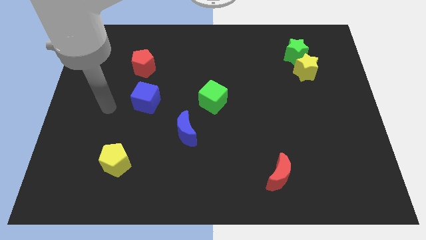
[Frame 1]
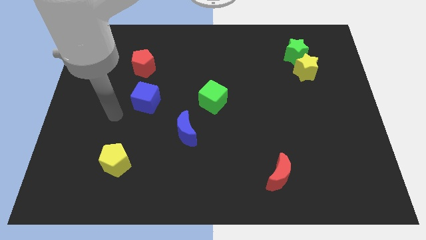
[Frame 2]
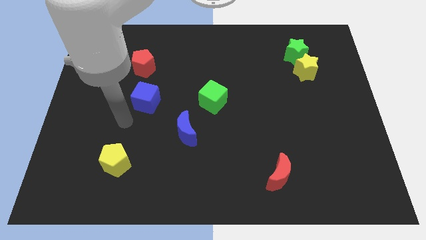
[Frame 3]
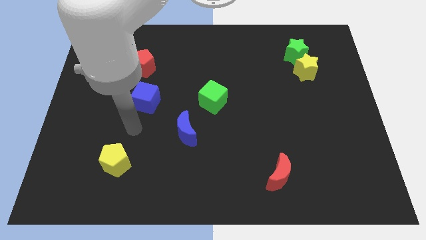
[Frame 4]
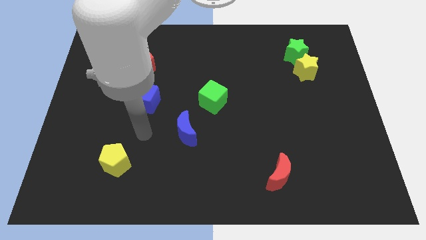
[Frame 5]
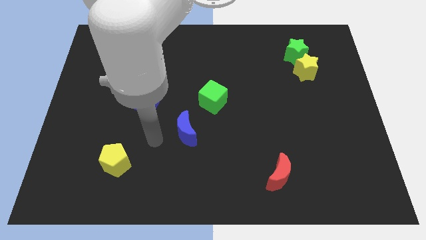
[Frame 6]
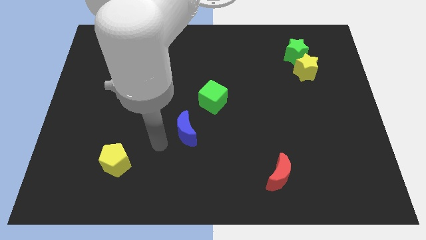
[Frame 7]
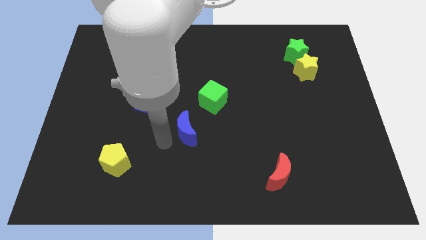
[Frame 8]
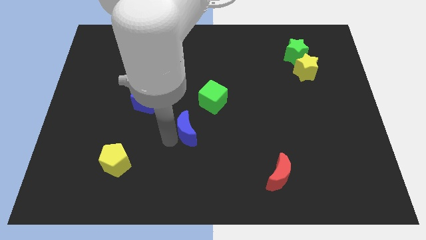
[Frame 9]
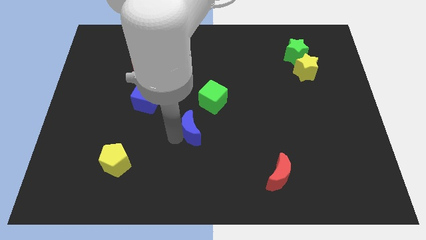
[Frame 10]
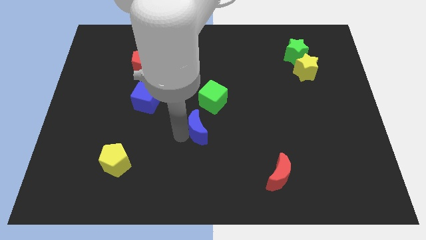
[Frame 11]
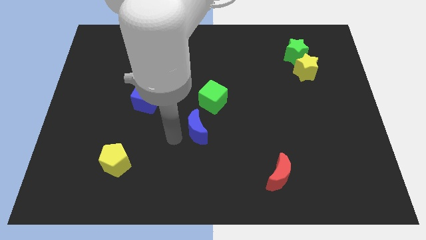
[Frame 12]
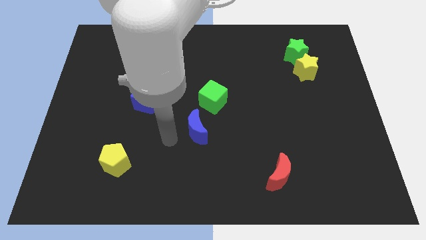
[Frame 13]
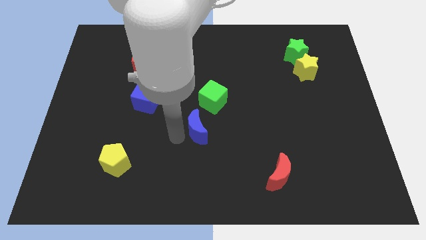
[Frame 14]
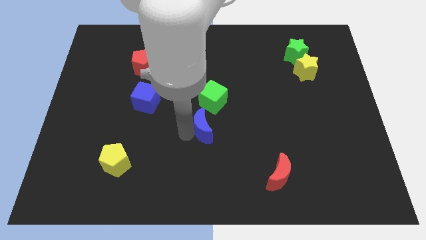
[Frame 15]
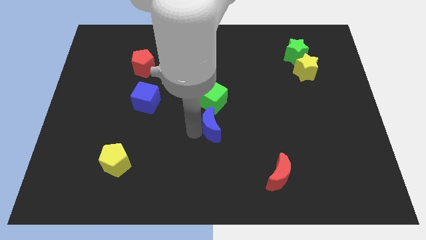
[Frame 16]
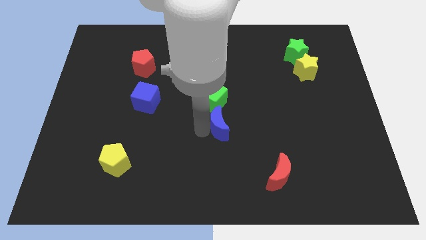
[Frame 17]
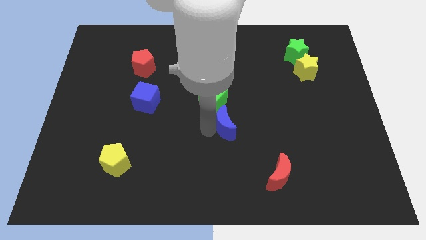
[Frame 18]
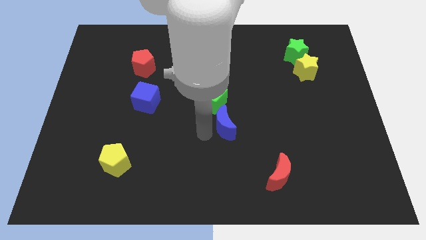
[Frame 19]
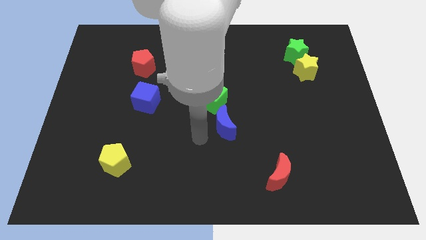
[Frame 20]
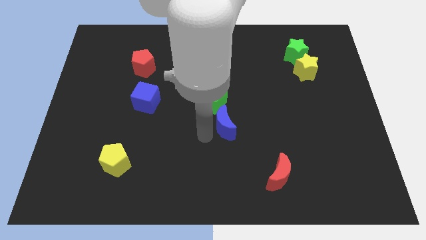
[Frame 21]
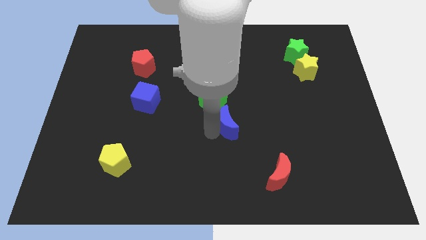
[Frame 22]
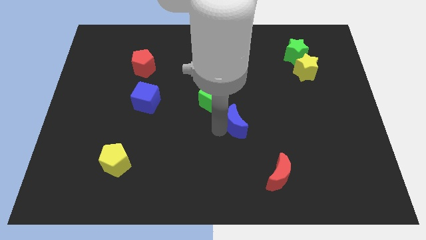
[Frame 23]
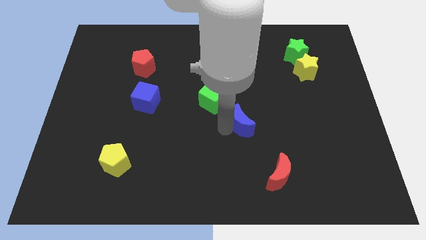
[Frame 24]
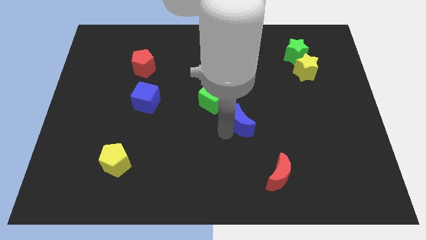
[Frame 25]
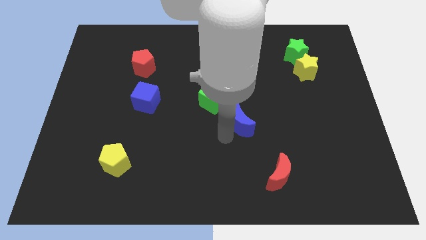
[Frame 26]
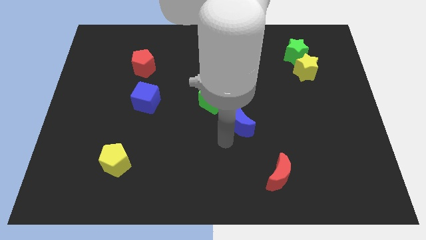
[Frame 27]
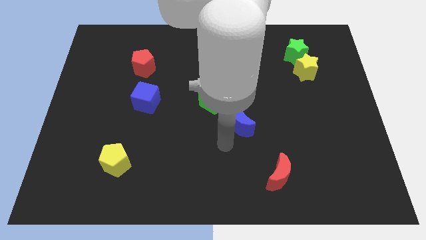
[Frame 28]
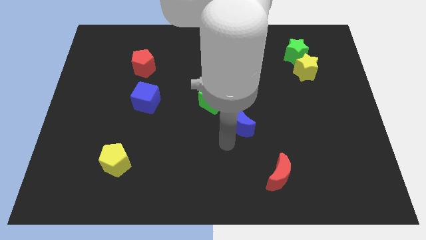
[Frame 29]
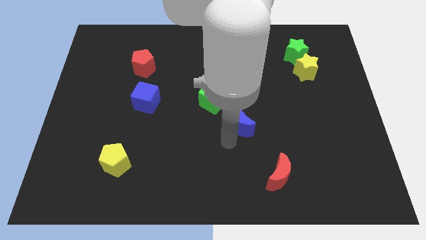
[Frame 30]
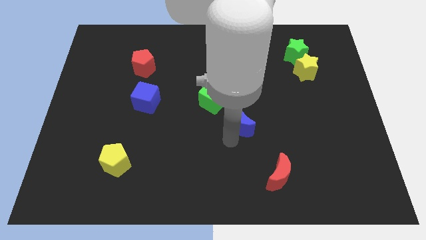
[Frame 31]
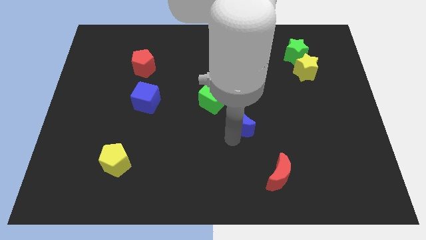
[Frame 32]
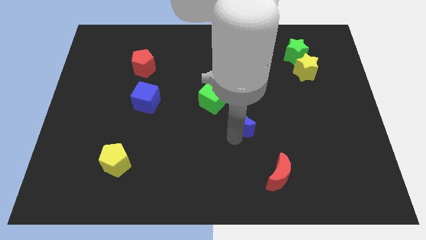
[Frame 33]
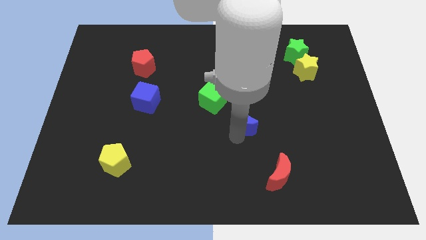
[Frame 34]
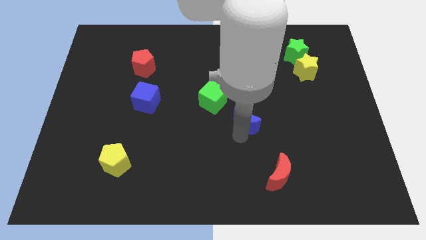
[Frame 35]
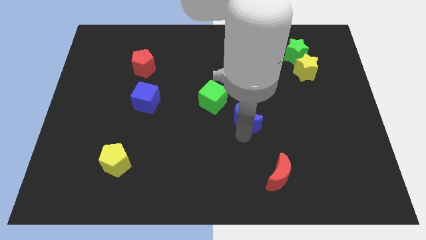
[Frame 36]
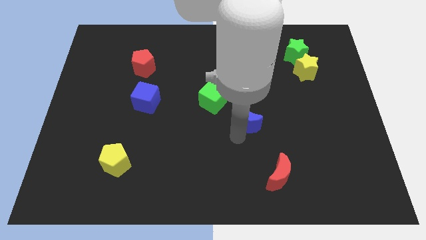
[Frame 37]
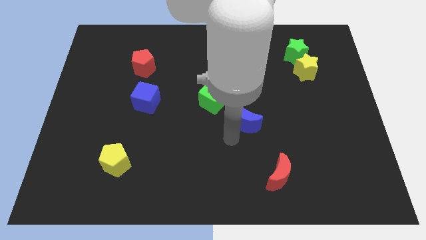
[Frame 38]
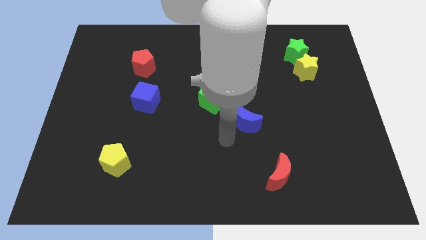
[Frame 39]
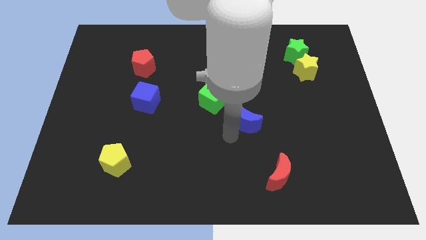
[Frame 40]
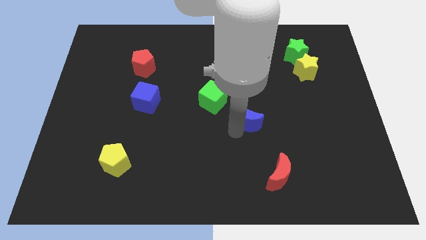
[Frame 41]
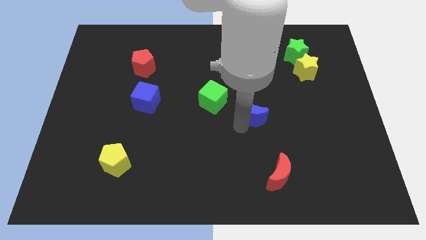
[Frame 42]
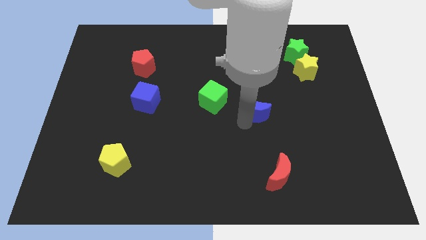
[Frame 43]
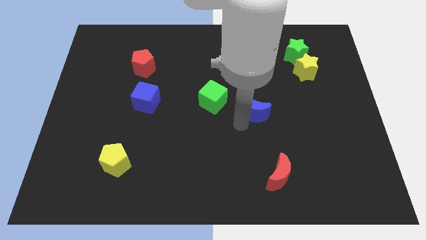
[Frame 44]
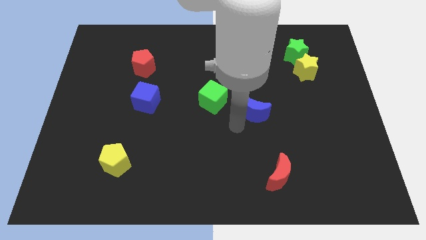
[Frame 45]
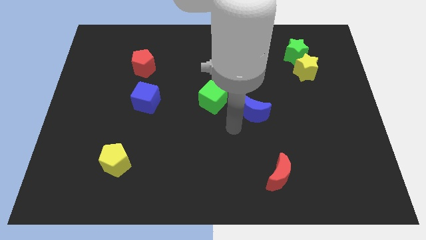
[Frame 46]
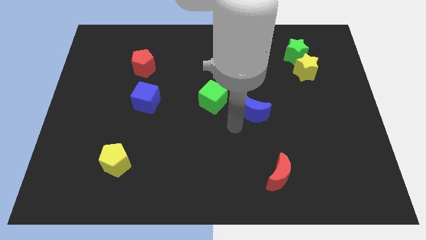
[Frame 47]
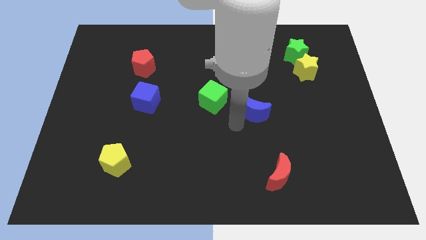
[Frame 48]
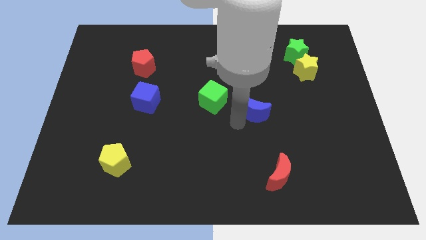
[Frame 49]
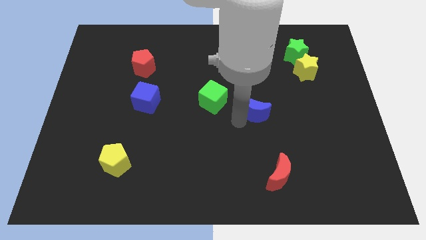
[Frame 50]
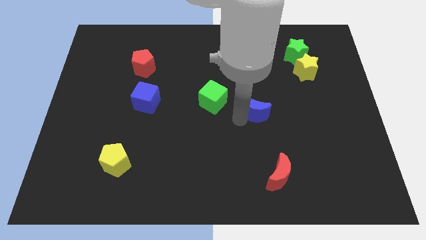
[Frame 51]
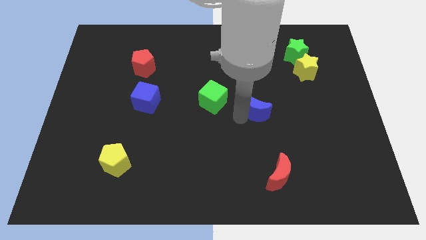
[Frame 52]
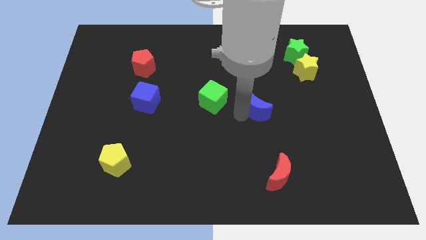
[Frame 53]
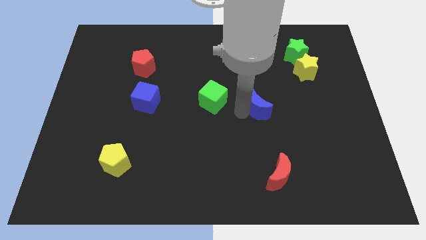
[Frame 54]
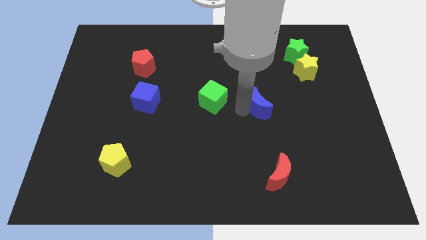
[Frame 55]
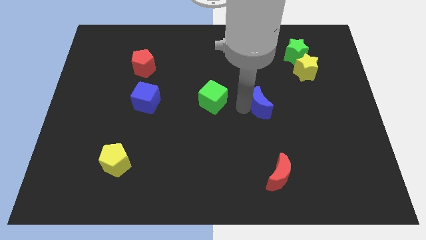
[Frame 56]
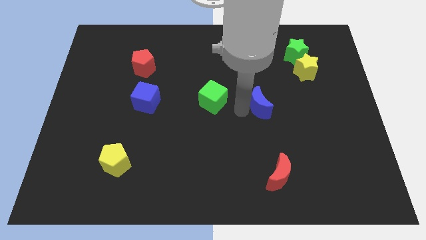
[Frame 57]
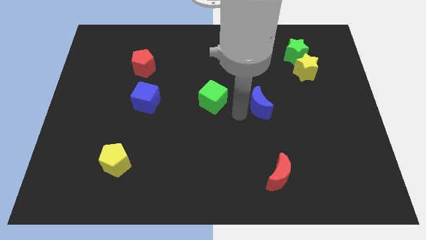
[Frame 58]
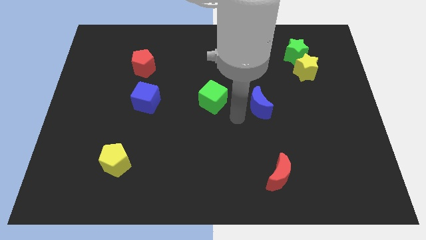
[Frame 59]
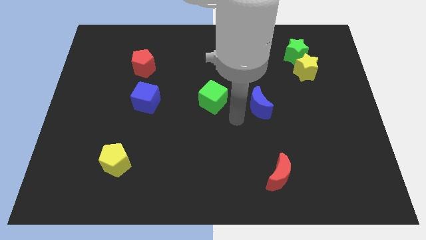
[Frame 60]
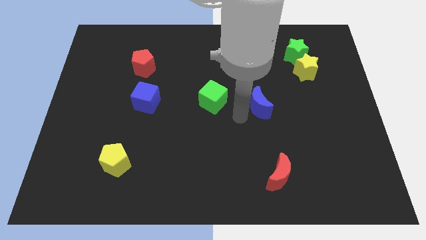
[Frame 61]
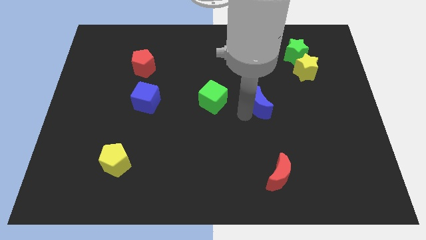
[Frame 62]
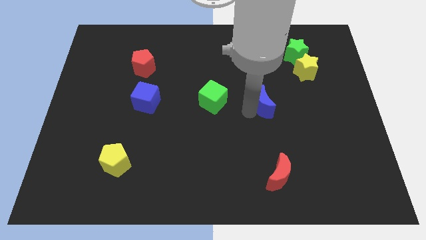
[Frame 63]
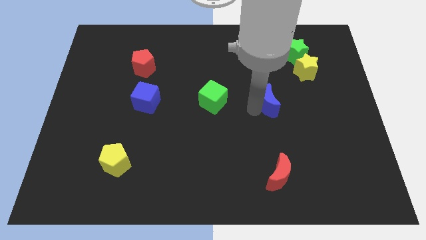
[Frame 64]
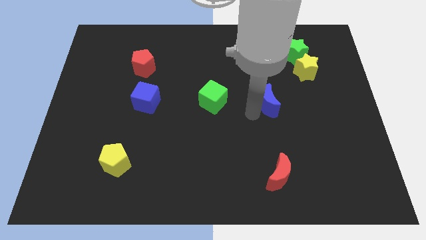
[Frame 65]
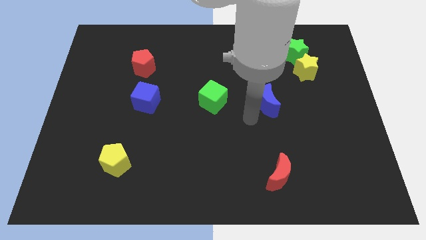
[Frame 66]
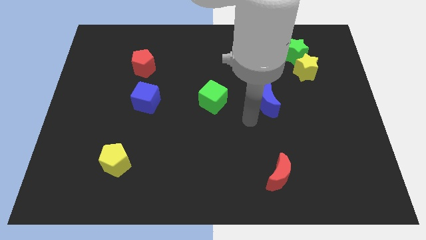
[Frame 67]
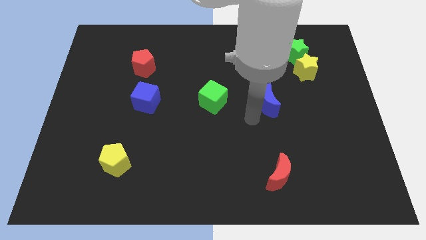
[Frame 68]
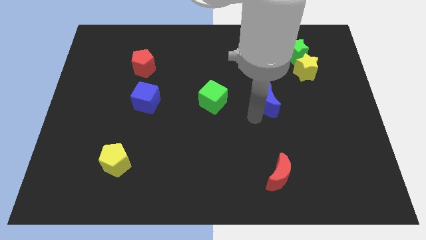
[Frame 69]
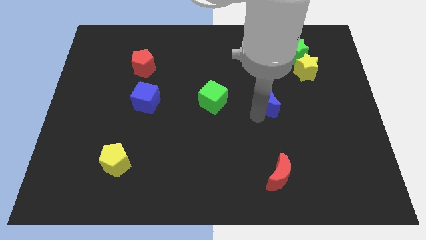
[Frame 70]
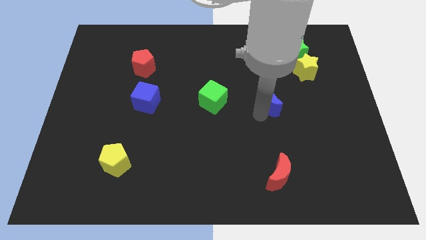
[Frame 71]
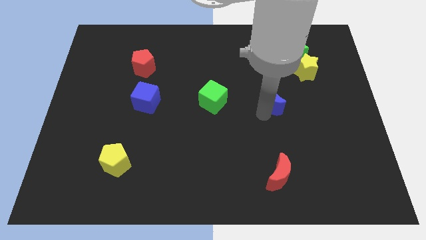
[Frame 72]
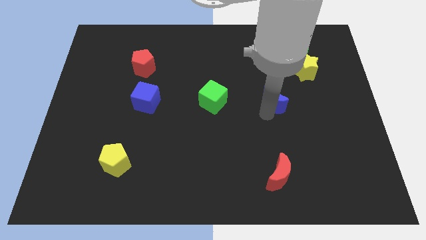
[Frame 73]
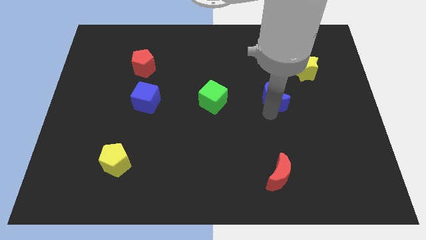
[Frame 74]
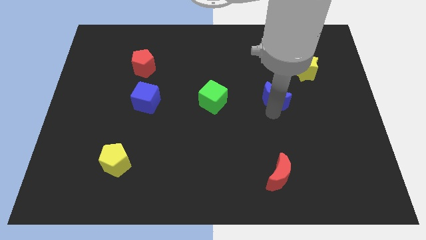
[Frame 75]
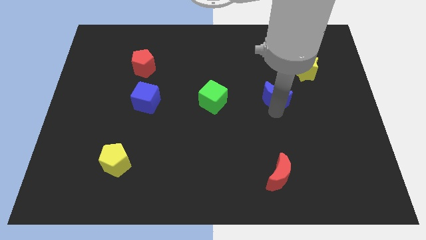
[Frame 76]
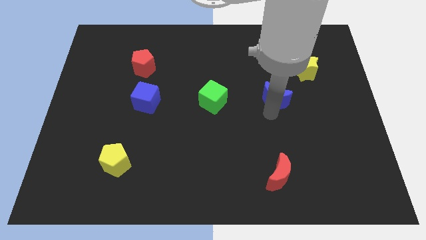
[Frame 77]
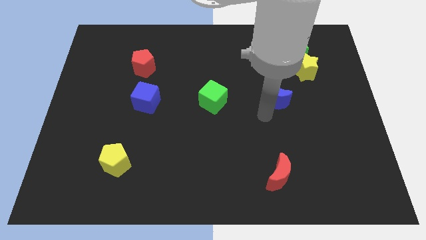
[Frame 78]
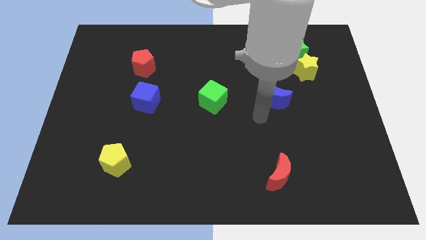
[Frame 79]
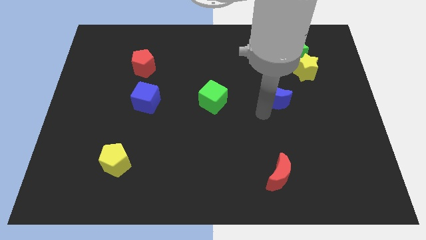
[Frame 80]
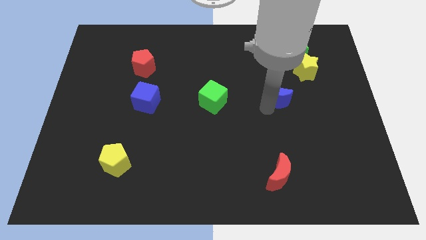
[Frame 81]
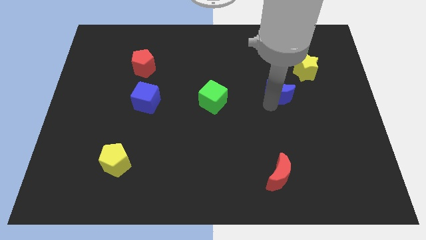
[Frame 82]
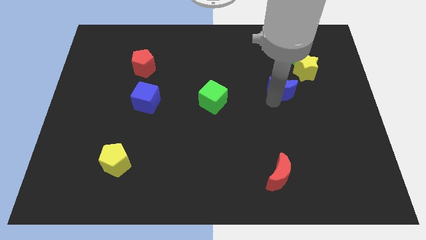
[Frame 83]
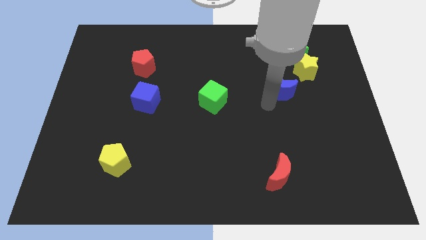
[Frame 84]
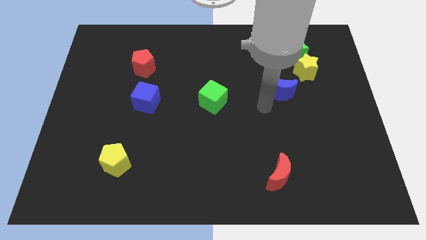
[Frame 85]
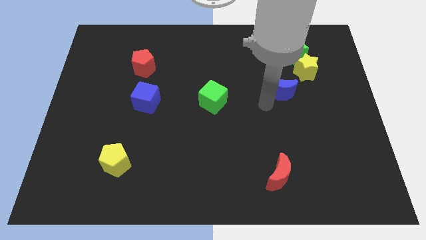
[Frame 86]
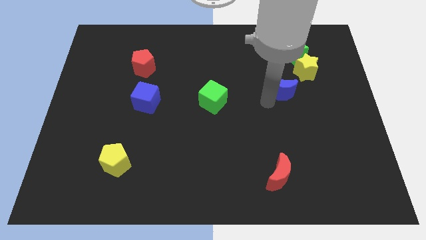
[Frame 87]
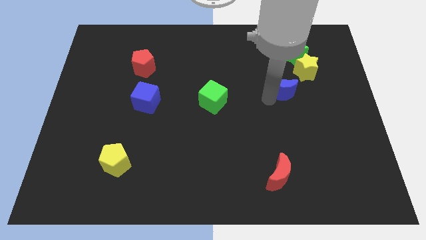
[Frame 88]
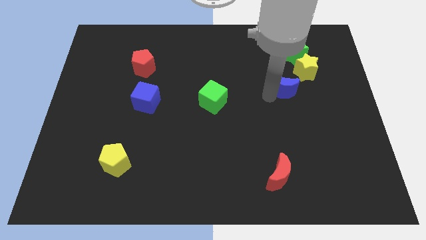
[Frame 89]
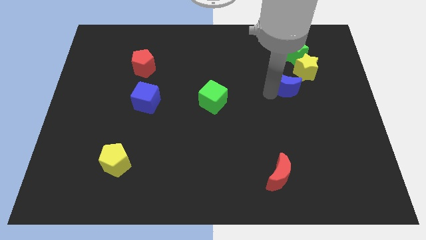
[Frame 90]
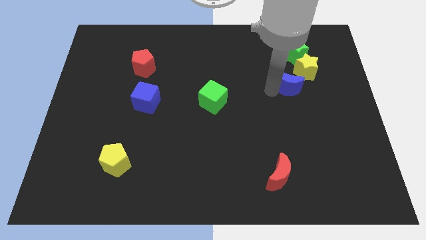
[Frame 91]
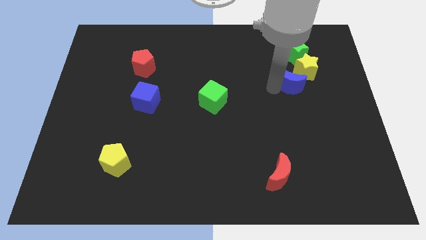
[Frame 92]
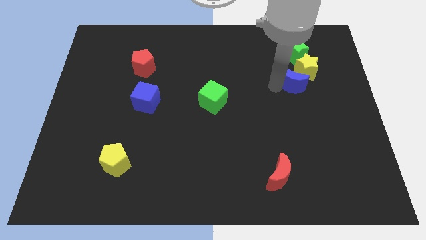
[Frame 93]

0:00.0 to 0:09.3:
push the blue moon towards the yellow star
